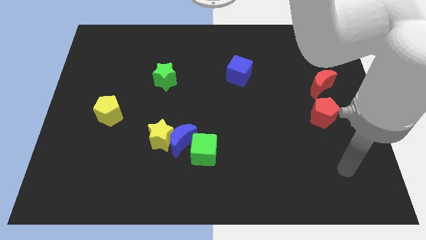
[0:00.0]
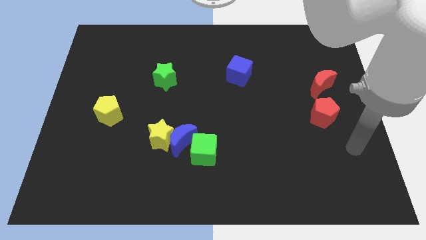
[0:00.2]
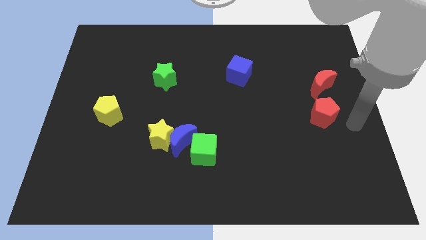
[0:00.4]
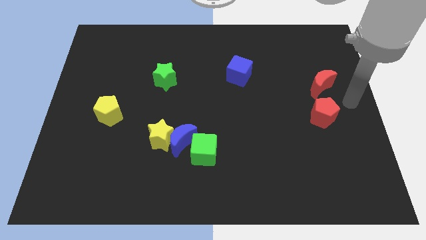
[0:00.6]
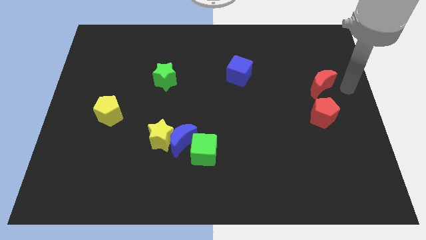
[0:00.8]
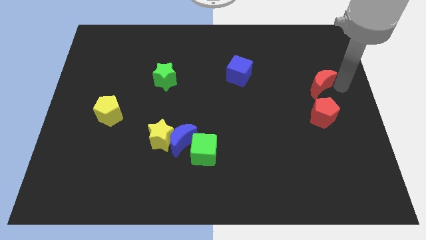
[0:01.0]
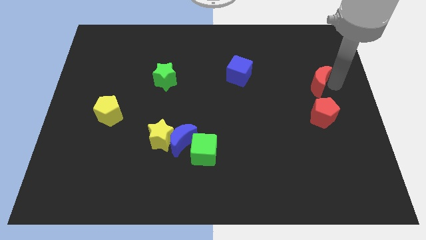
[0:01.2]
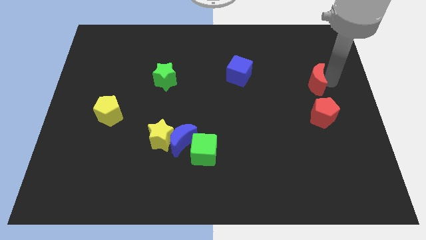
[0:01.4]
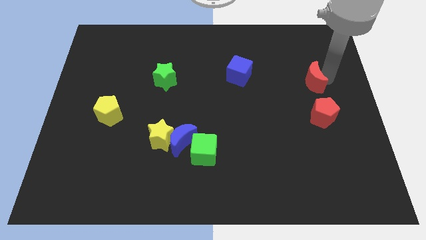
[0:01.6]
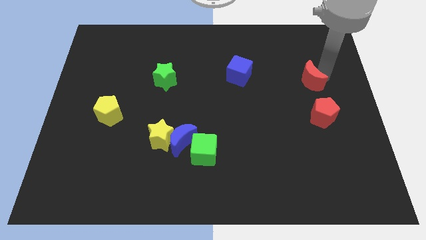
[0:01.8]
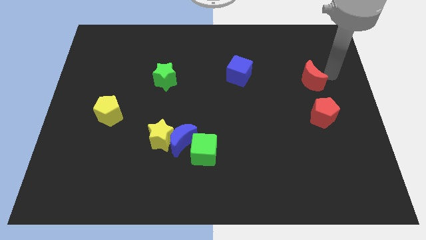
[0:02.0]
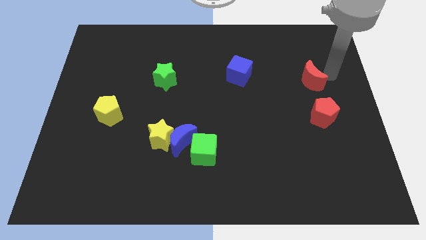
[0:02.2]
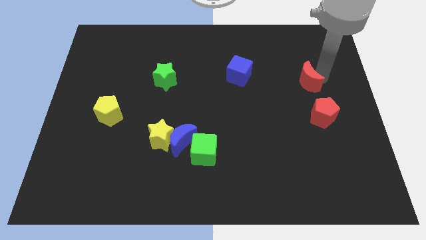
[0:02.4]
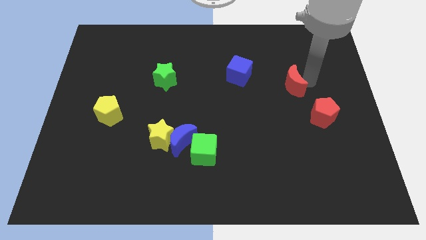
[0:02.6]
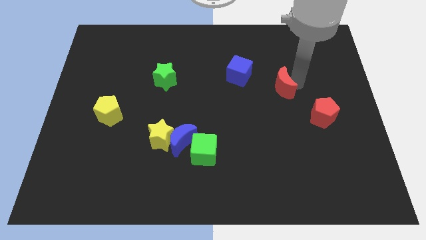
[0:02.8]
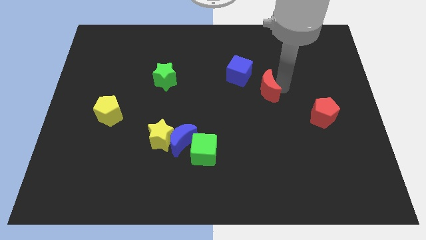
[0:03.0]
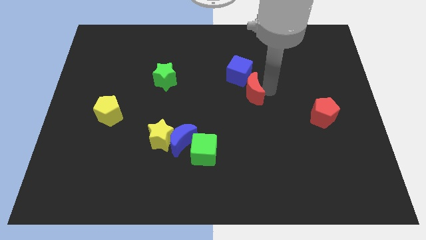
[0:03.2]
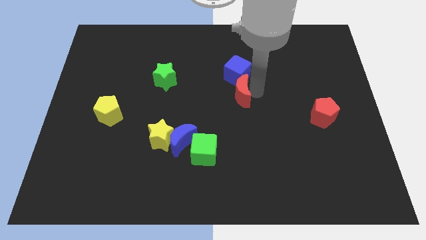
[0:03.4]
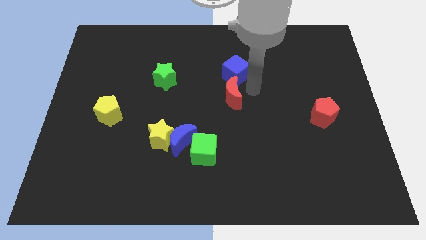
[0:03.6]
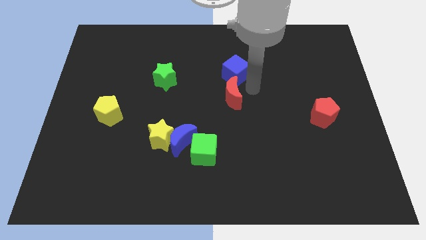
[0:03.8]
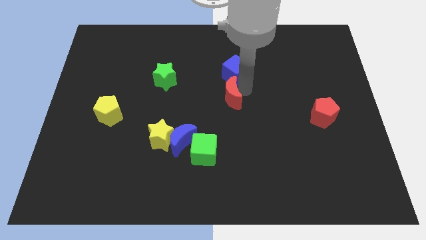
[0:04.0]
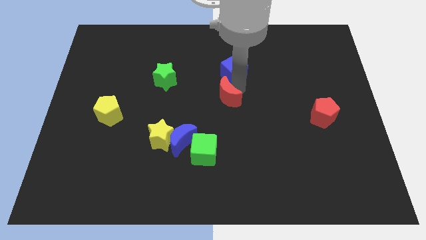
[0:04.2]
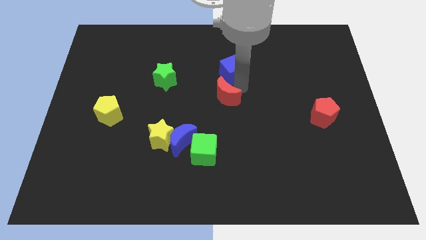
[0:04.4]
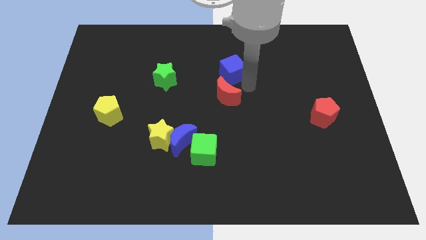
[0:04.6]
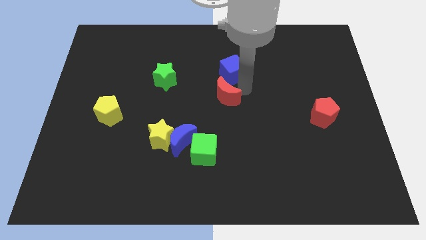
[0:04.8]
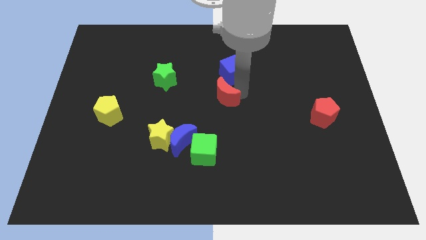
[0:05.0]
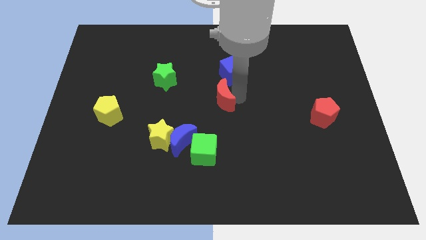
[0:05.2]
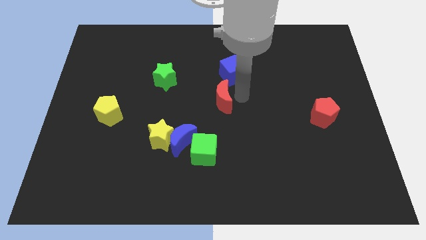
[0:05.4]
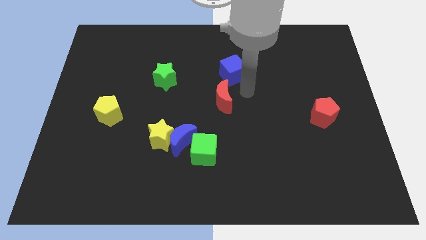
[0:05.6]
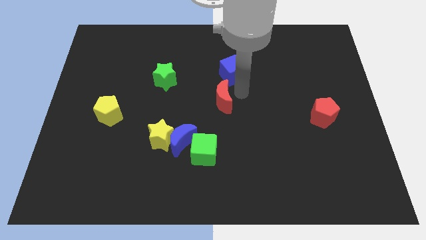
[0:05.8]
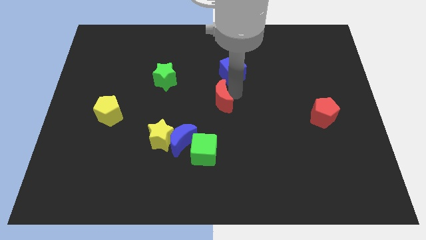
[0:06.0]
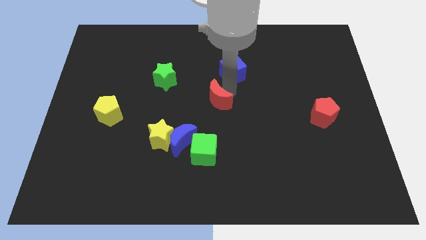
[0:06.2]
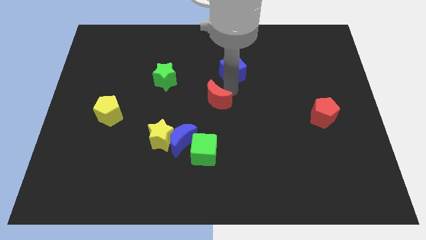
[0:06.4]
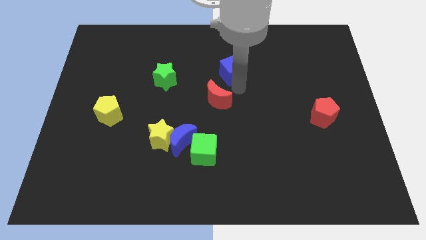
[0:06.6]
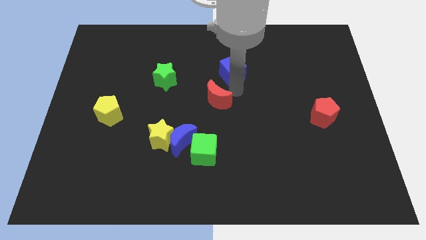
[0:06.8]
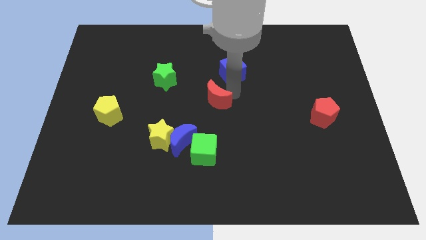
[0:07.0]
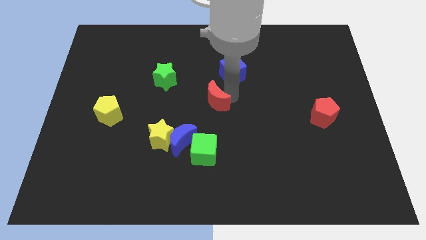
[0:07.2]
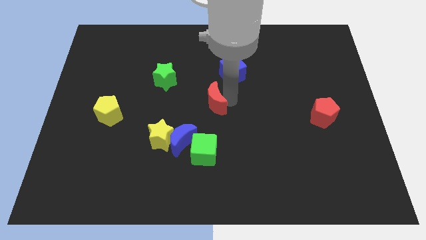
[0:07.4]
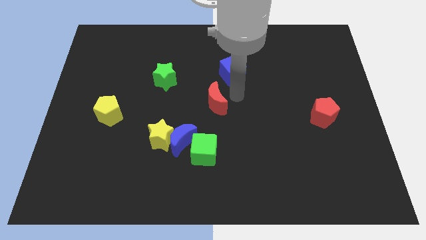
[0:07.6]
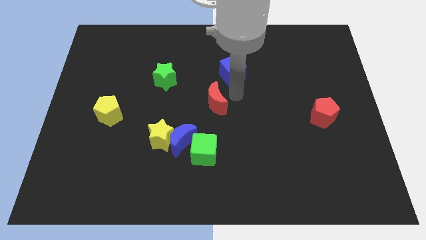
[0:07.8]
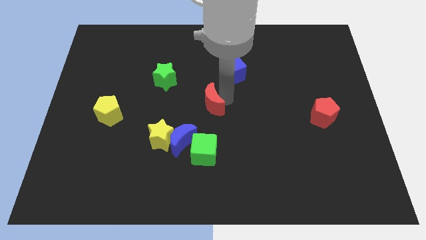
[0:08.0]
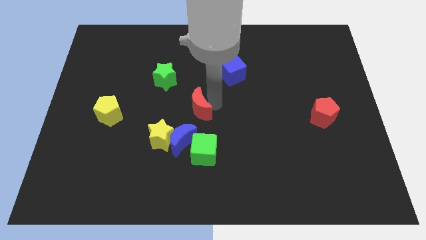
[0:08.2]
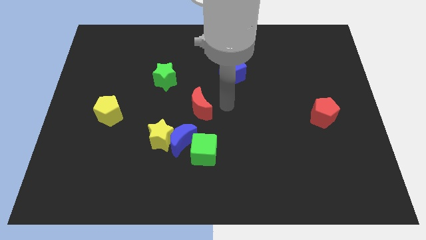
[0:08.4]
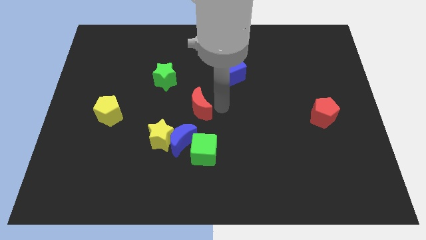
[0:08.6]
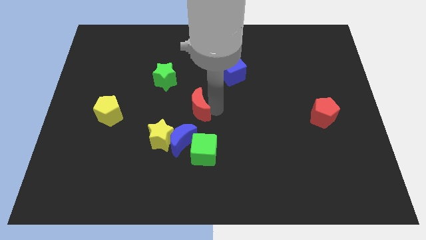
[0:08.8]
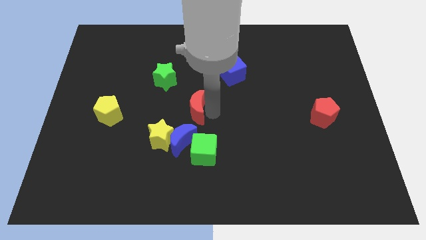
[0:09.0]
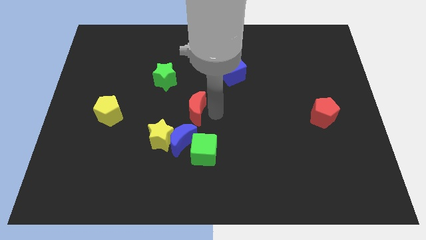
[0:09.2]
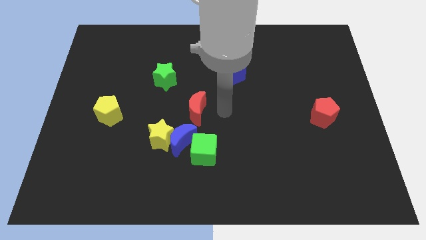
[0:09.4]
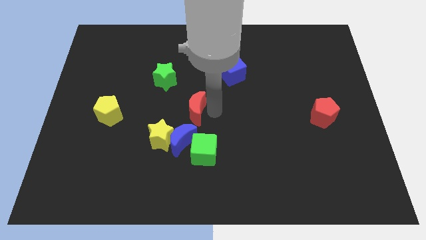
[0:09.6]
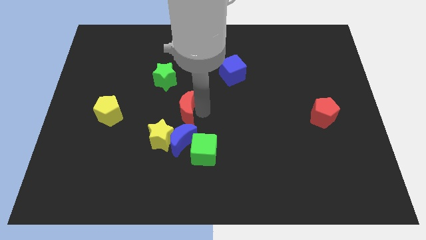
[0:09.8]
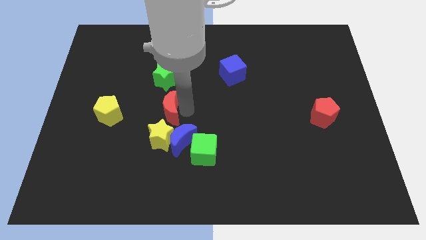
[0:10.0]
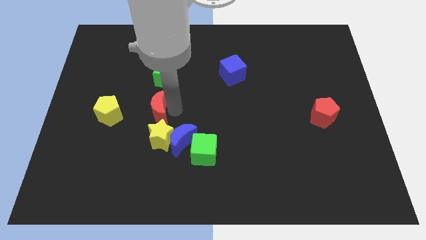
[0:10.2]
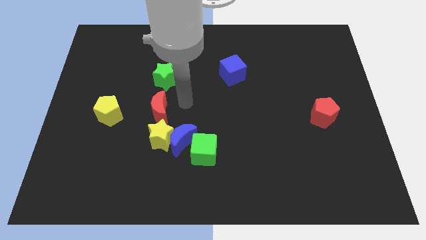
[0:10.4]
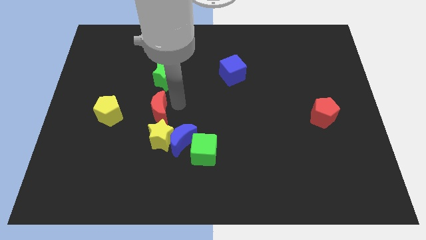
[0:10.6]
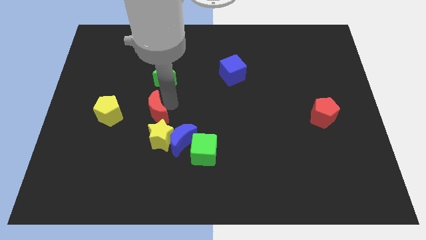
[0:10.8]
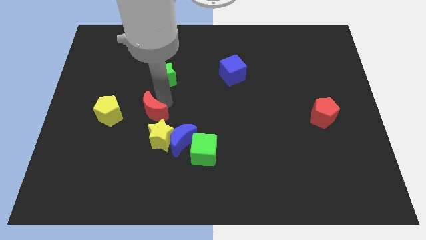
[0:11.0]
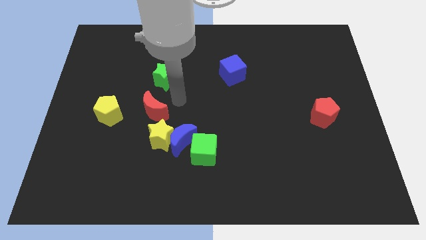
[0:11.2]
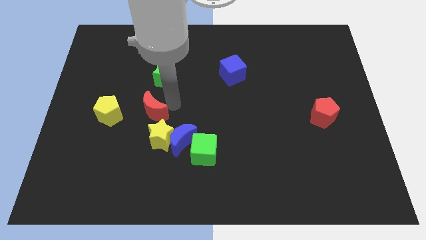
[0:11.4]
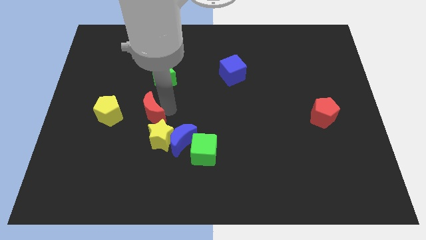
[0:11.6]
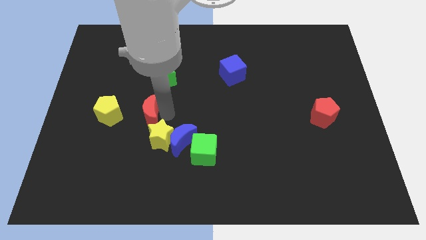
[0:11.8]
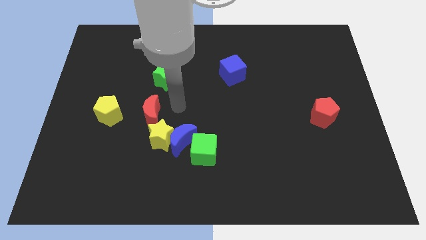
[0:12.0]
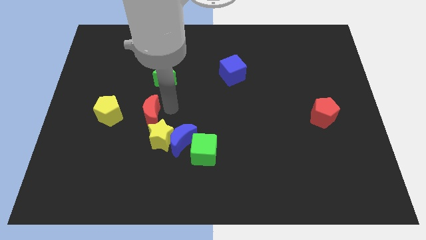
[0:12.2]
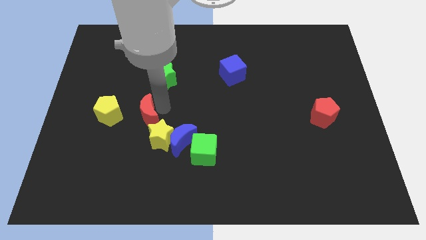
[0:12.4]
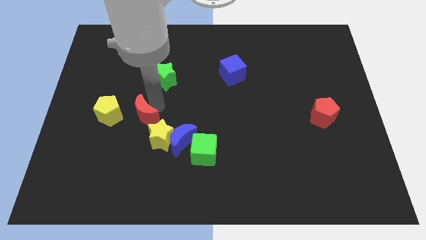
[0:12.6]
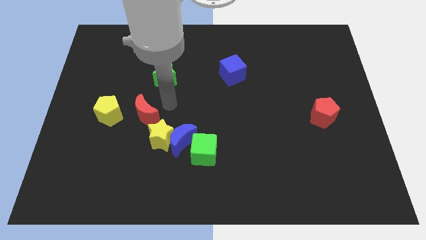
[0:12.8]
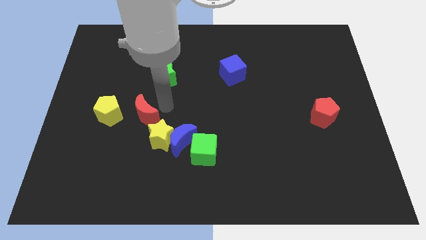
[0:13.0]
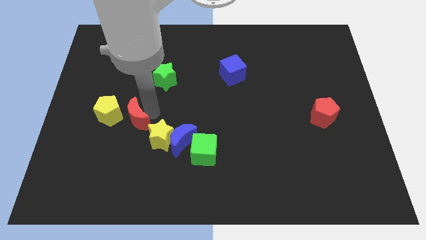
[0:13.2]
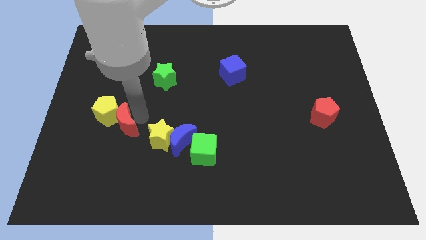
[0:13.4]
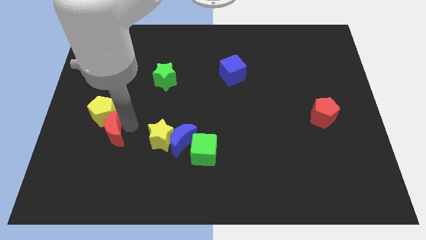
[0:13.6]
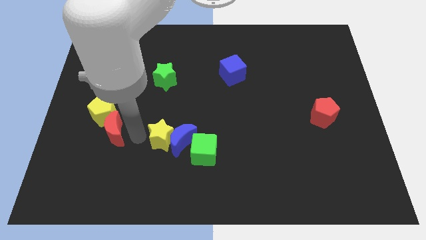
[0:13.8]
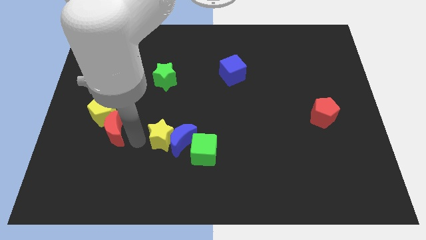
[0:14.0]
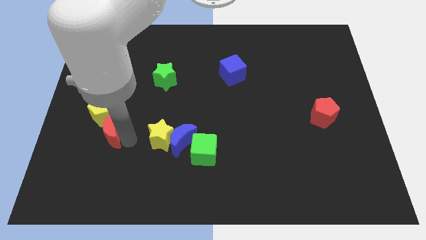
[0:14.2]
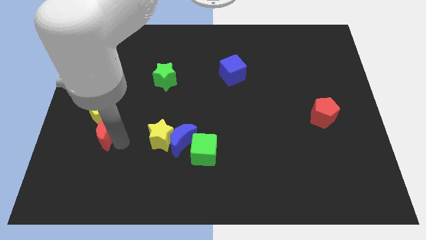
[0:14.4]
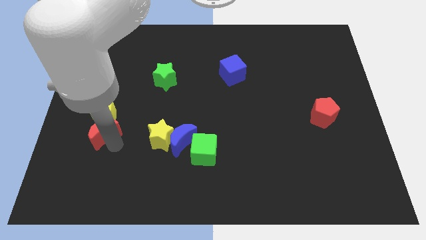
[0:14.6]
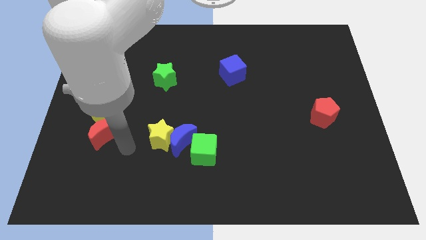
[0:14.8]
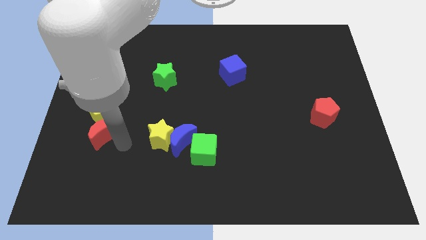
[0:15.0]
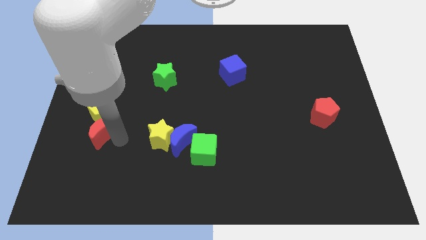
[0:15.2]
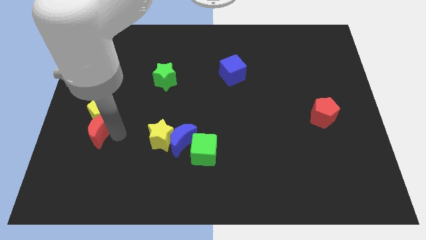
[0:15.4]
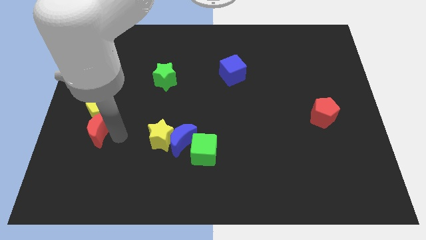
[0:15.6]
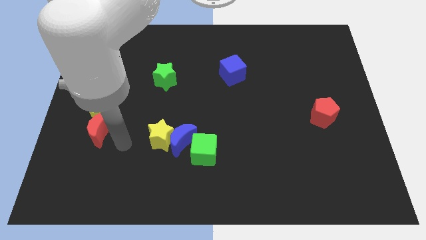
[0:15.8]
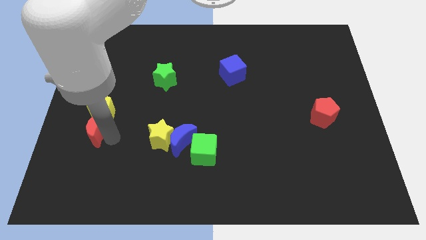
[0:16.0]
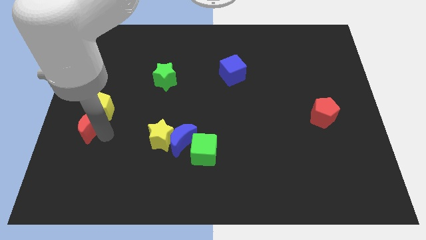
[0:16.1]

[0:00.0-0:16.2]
put the red moon to the left side of the board
